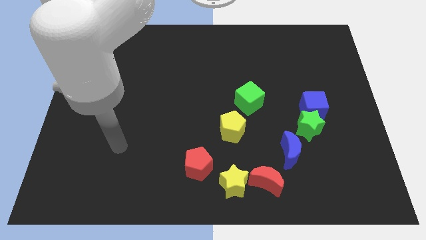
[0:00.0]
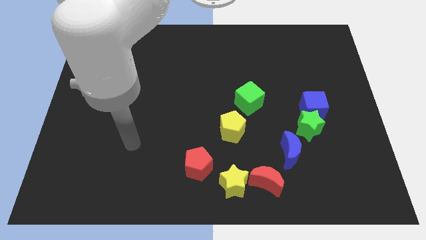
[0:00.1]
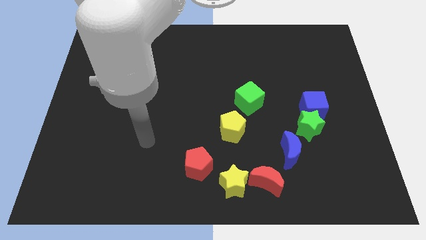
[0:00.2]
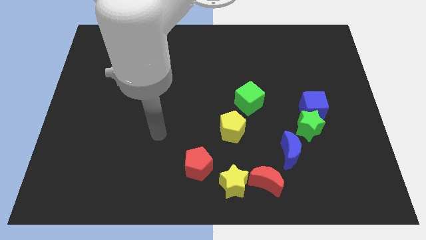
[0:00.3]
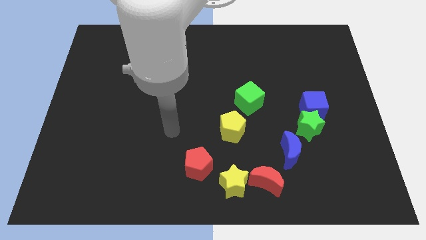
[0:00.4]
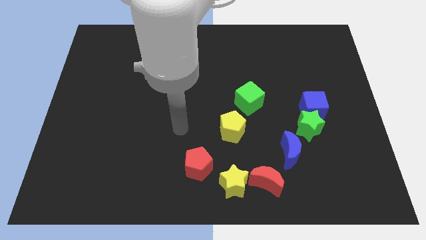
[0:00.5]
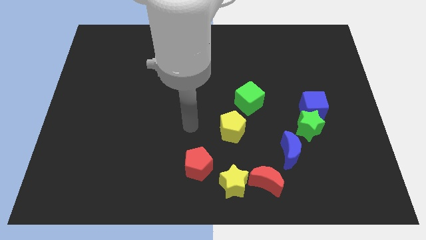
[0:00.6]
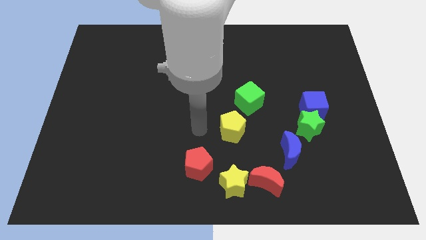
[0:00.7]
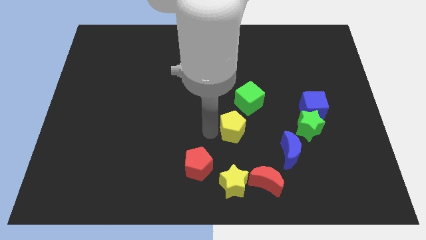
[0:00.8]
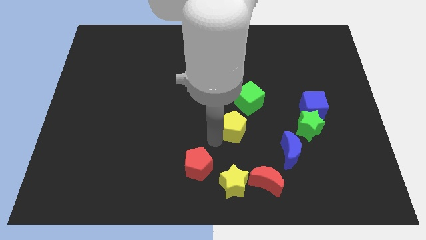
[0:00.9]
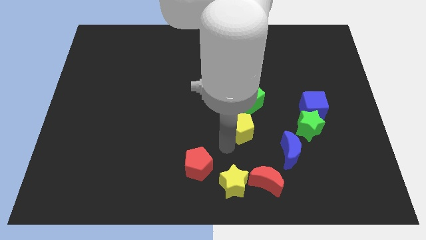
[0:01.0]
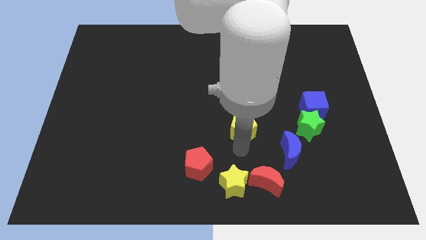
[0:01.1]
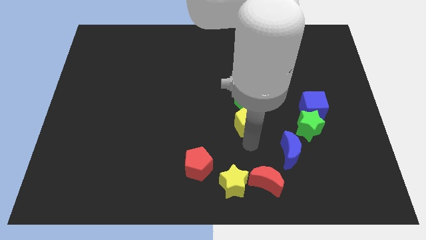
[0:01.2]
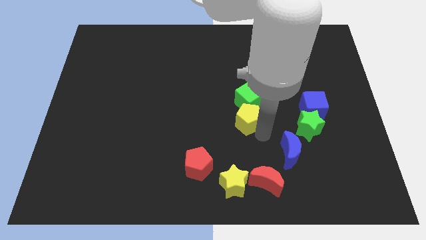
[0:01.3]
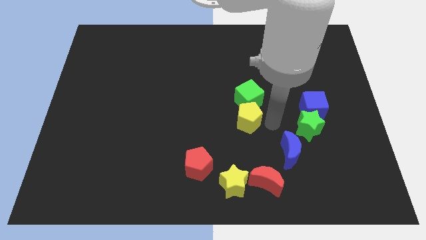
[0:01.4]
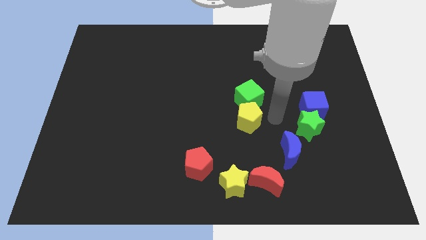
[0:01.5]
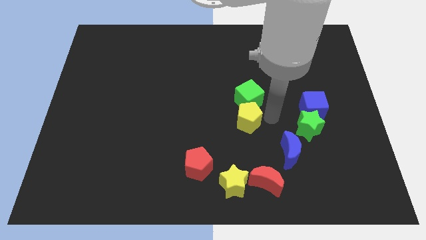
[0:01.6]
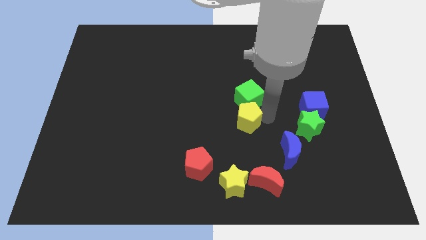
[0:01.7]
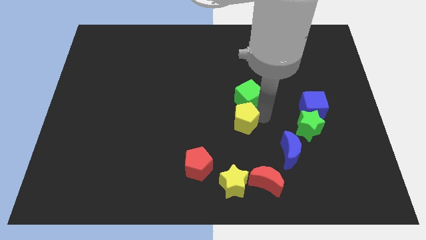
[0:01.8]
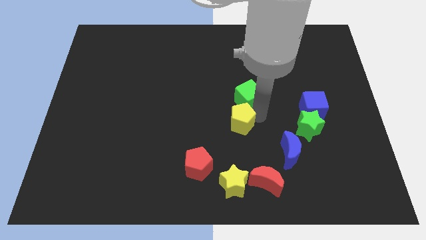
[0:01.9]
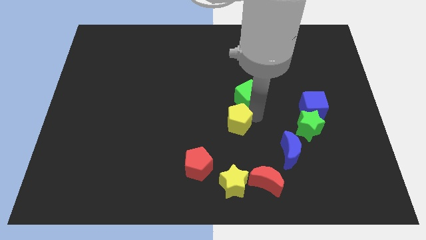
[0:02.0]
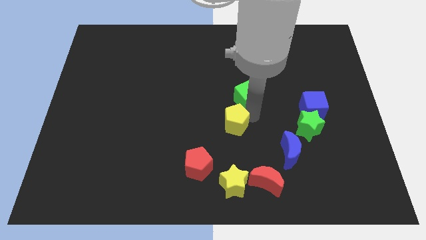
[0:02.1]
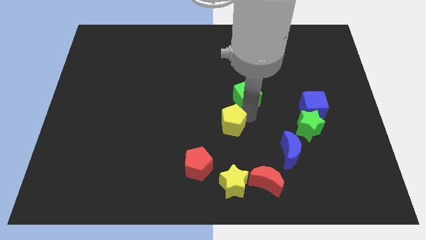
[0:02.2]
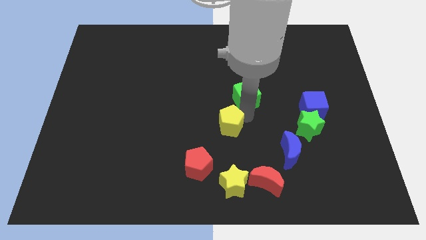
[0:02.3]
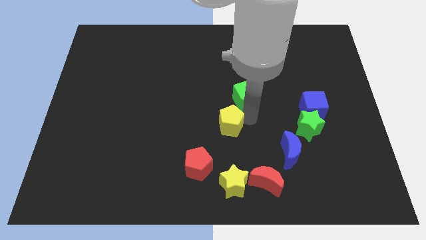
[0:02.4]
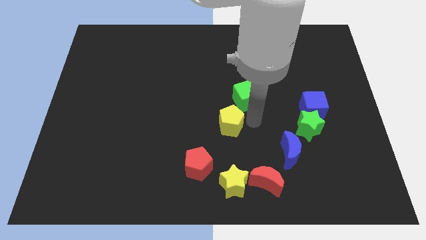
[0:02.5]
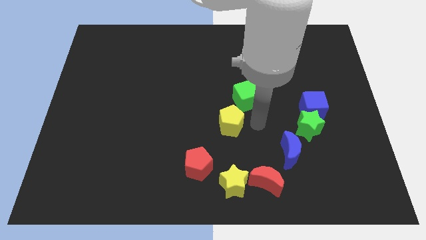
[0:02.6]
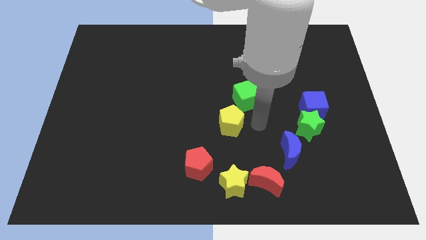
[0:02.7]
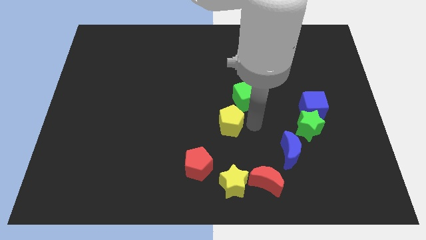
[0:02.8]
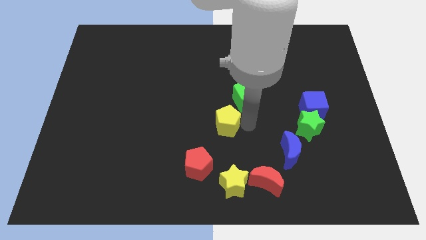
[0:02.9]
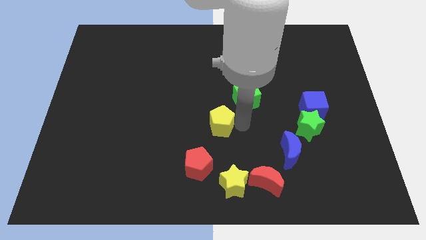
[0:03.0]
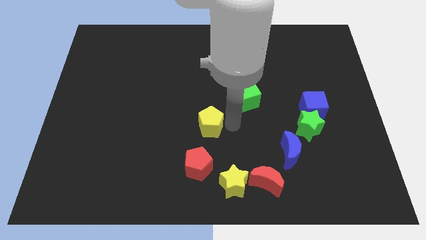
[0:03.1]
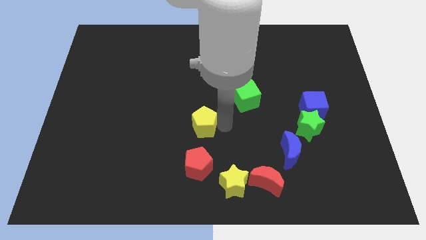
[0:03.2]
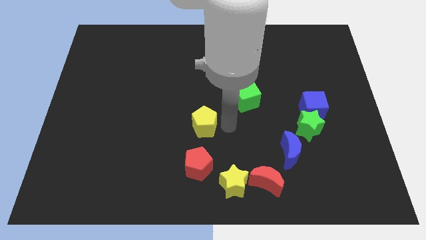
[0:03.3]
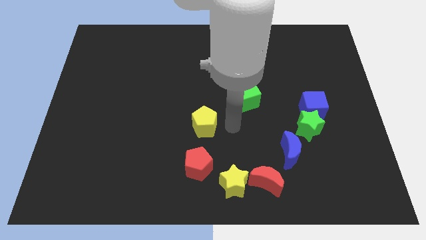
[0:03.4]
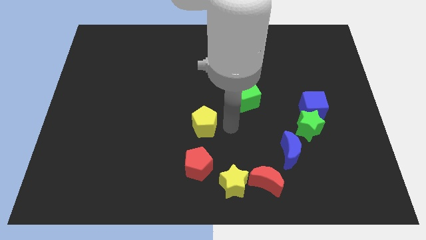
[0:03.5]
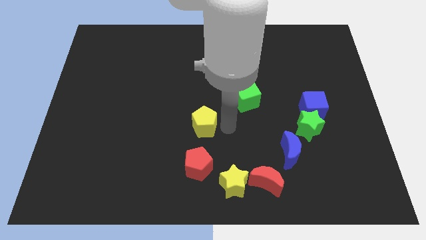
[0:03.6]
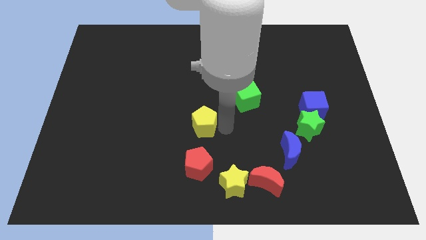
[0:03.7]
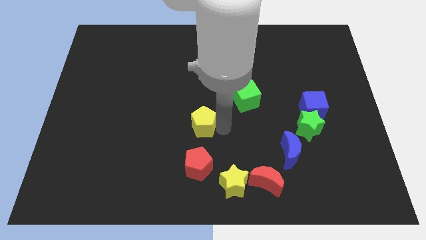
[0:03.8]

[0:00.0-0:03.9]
move the yellow pentagon to the left slightly

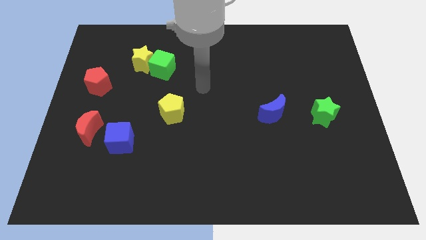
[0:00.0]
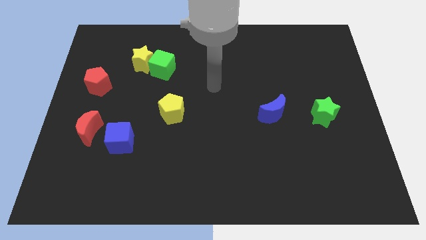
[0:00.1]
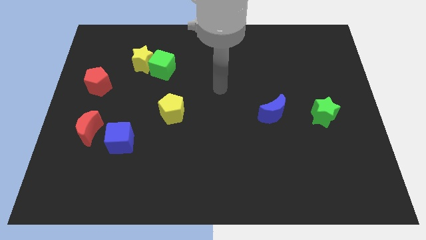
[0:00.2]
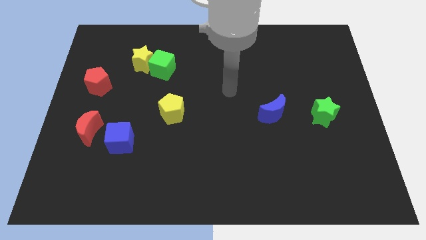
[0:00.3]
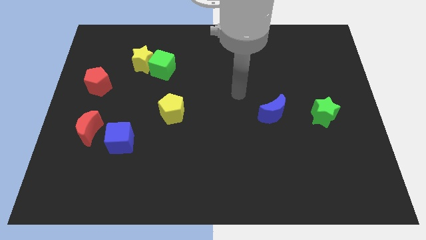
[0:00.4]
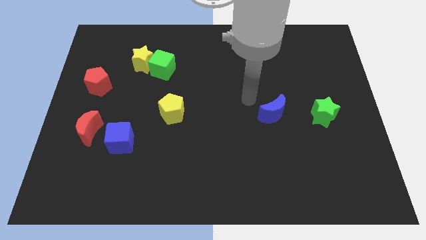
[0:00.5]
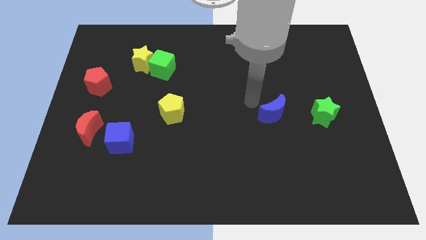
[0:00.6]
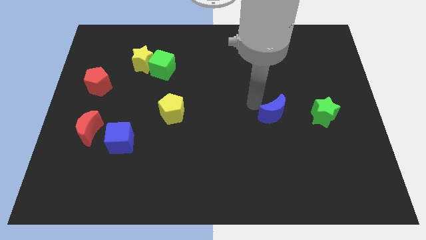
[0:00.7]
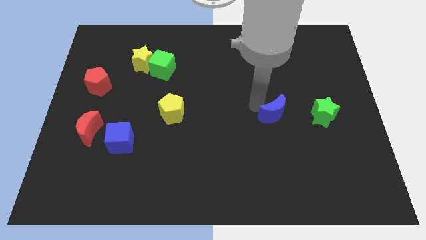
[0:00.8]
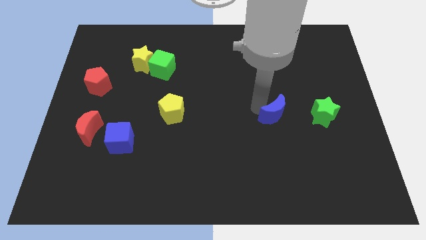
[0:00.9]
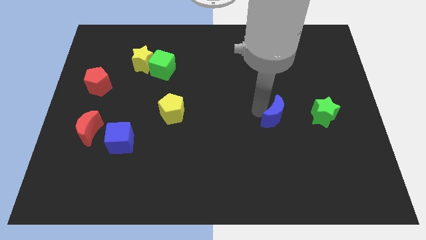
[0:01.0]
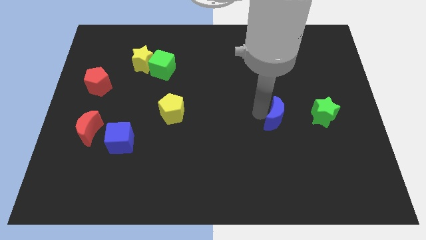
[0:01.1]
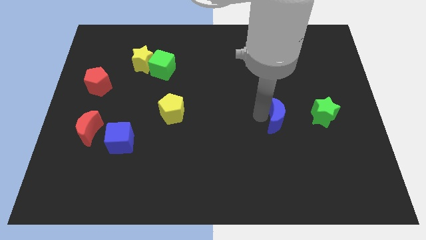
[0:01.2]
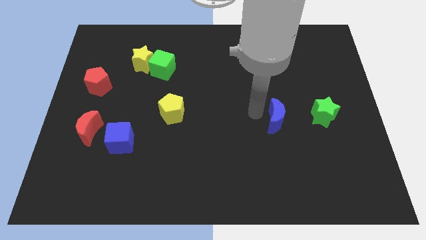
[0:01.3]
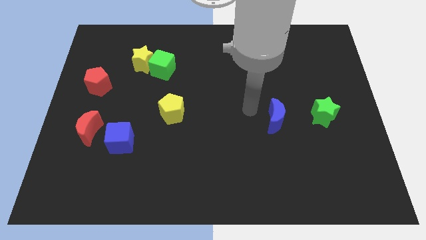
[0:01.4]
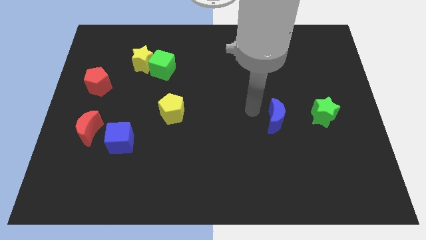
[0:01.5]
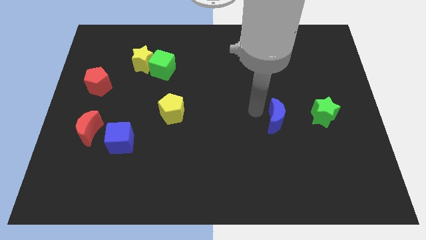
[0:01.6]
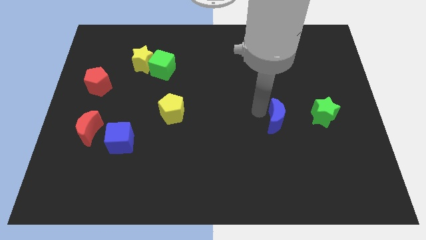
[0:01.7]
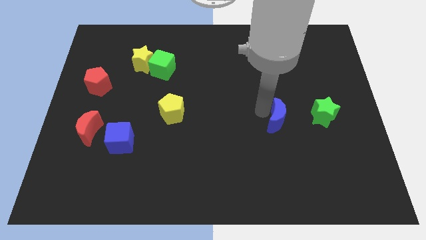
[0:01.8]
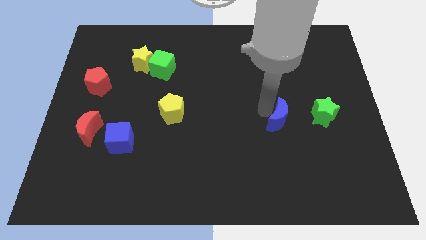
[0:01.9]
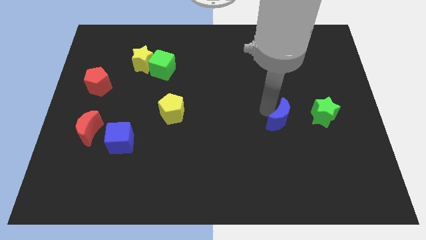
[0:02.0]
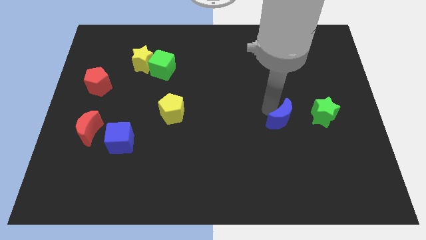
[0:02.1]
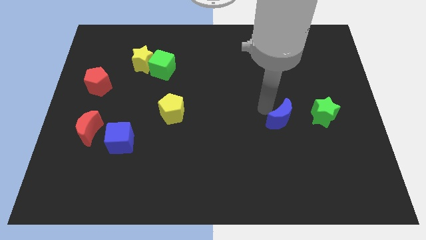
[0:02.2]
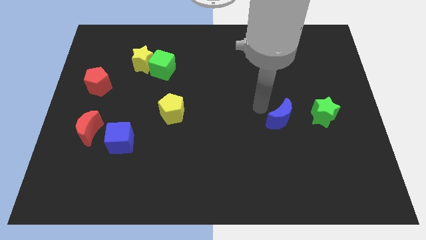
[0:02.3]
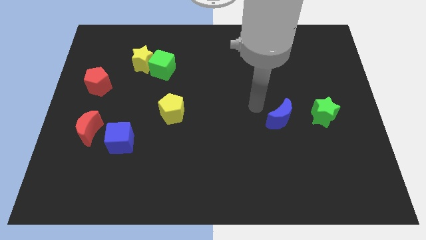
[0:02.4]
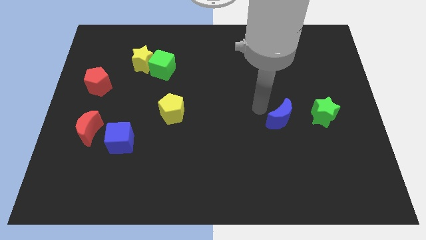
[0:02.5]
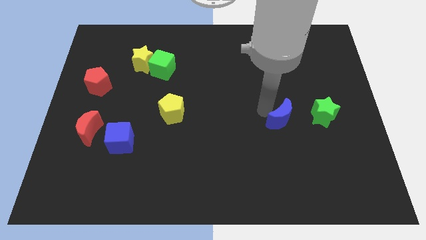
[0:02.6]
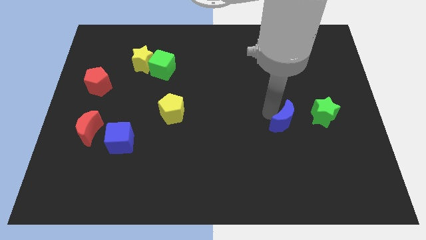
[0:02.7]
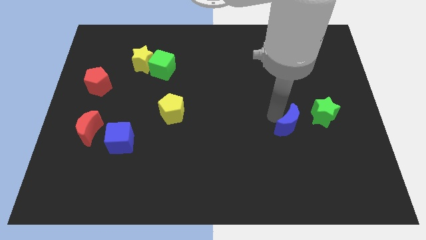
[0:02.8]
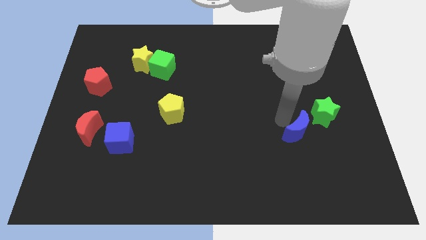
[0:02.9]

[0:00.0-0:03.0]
push the blue moon a little downwards and right

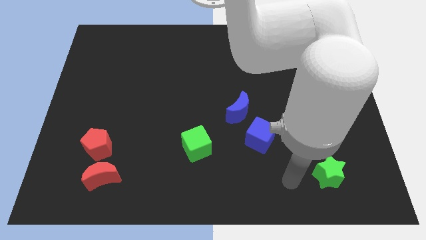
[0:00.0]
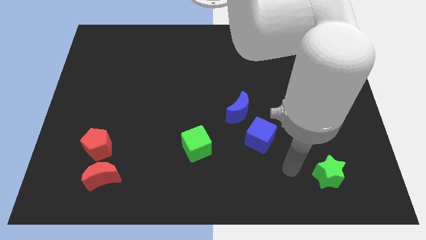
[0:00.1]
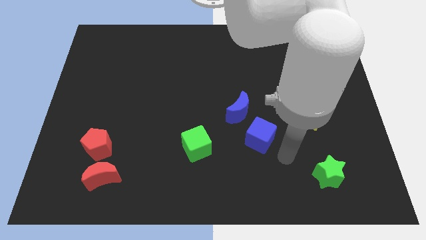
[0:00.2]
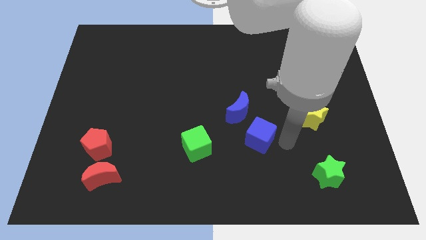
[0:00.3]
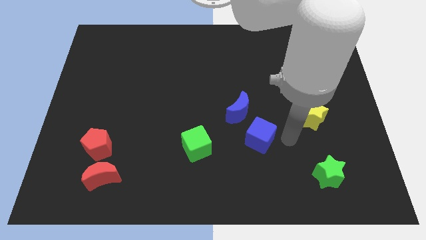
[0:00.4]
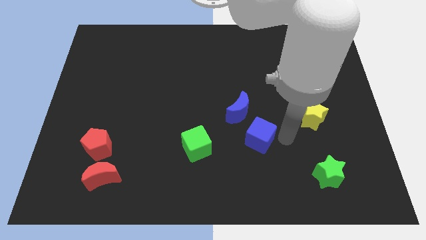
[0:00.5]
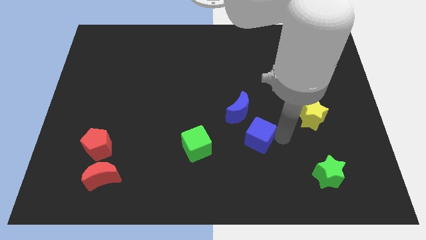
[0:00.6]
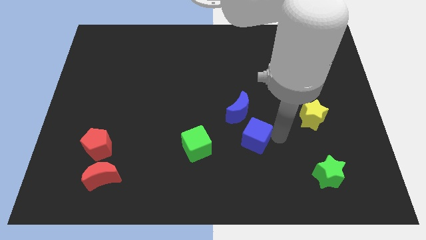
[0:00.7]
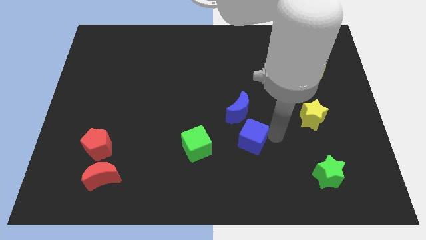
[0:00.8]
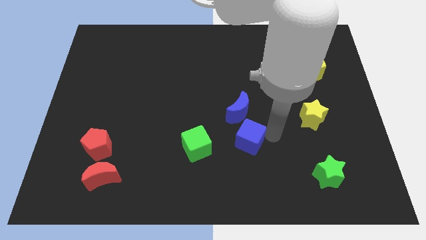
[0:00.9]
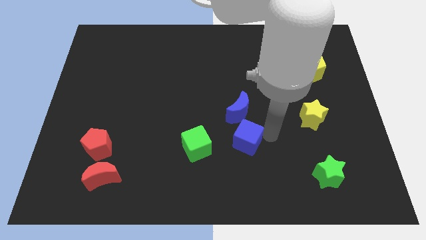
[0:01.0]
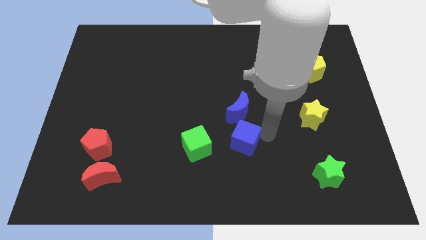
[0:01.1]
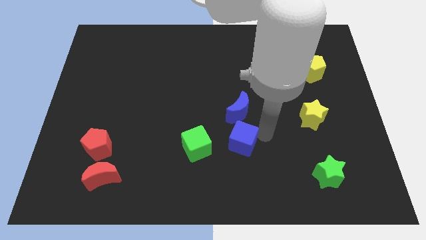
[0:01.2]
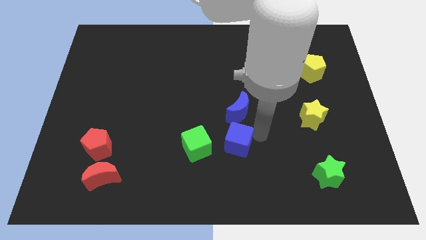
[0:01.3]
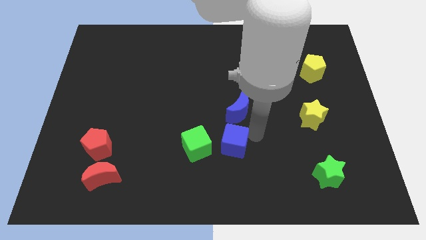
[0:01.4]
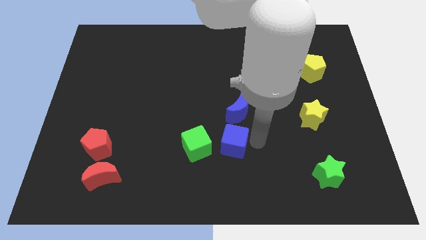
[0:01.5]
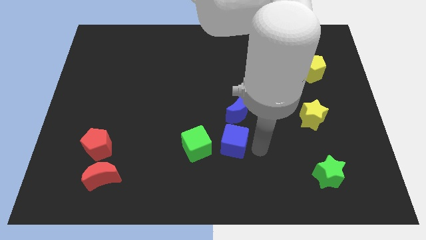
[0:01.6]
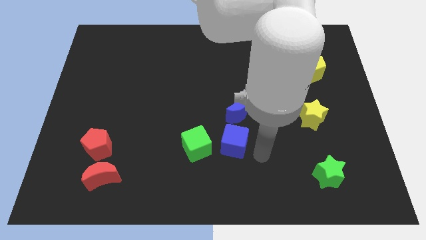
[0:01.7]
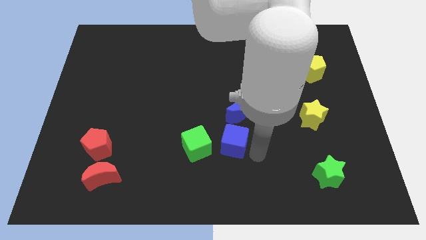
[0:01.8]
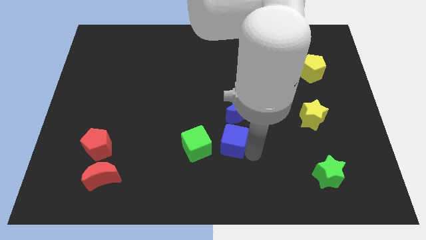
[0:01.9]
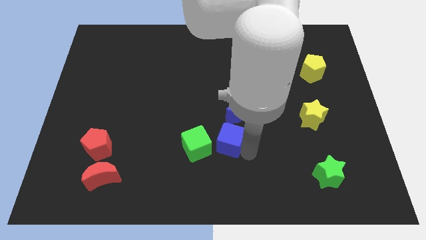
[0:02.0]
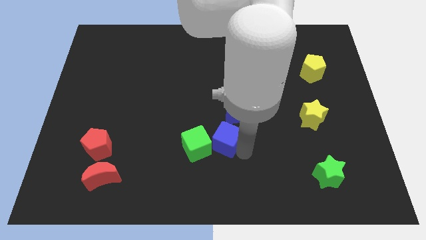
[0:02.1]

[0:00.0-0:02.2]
slide the blue cube to the left a little bit
